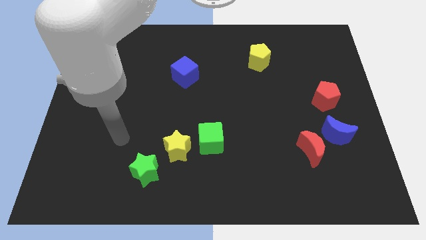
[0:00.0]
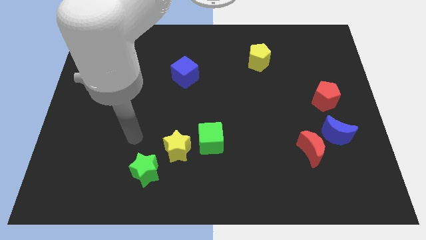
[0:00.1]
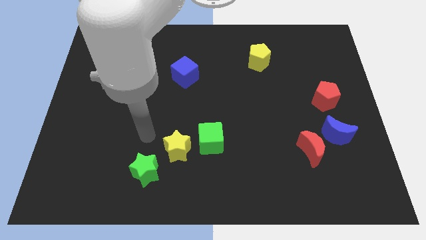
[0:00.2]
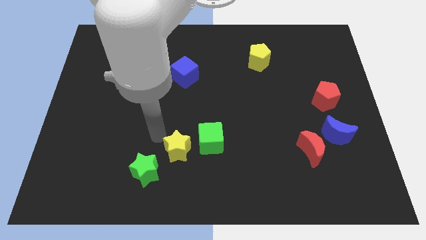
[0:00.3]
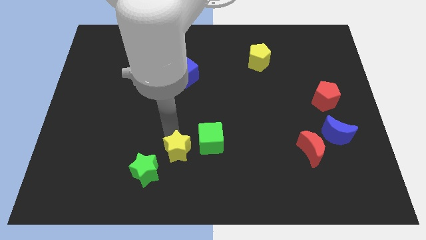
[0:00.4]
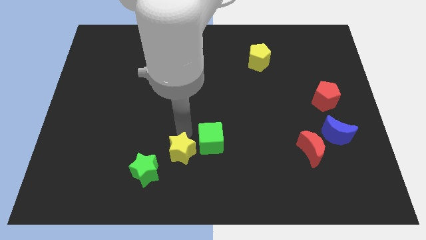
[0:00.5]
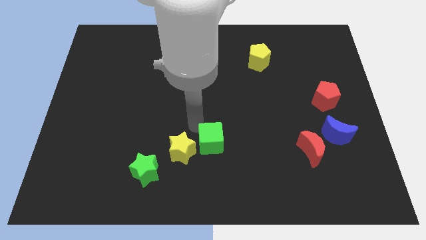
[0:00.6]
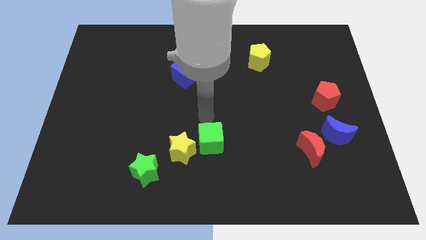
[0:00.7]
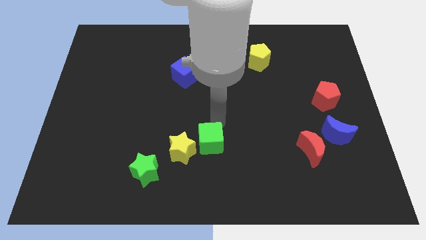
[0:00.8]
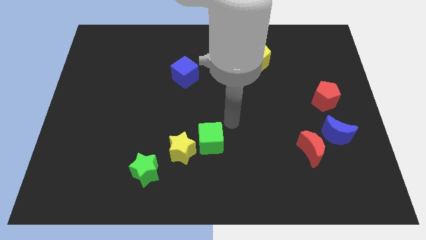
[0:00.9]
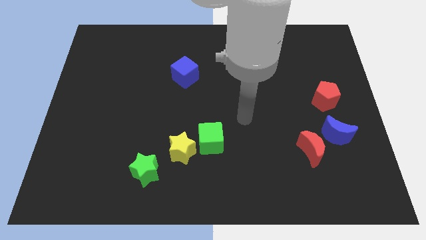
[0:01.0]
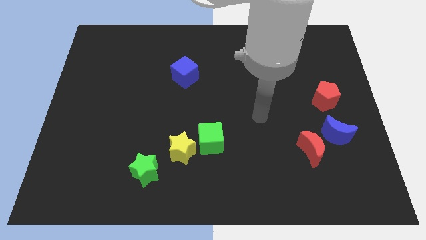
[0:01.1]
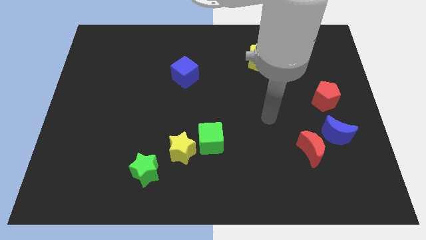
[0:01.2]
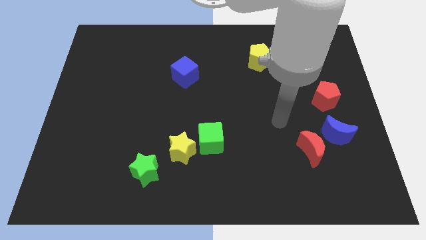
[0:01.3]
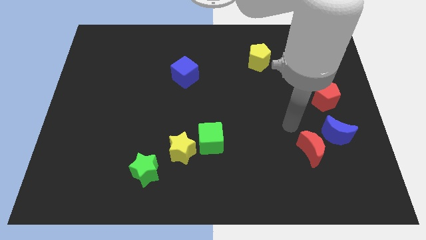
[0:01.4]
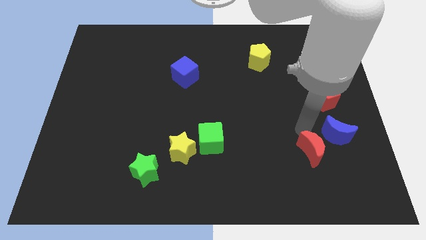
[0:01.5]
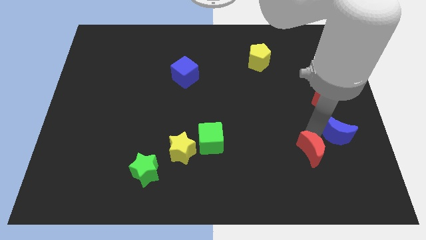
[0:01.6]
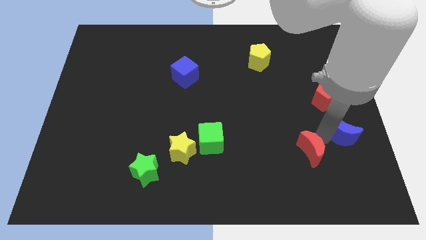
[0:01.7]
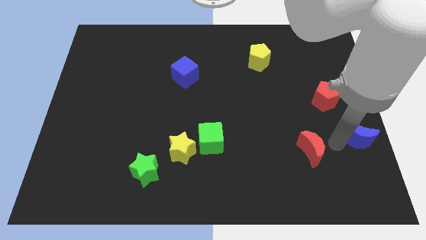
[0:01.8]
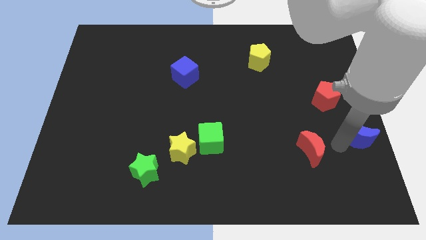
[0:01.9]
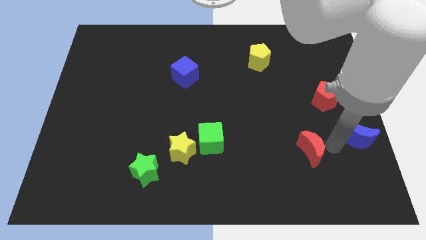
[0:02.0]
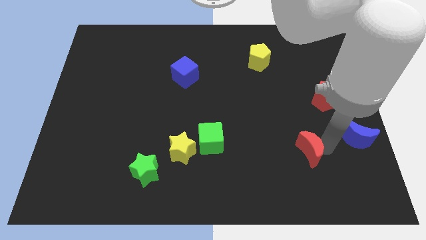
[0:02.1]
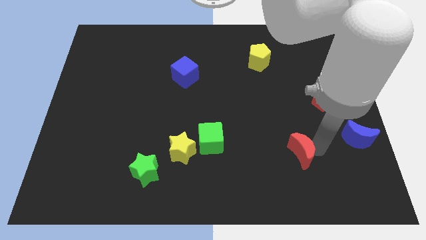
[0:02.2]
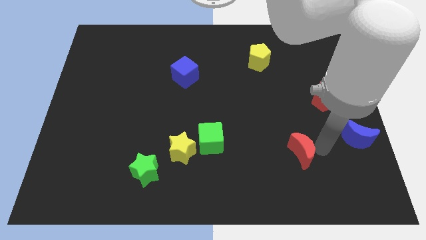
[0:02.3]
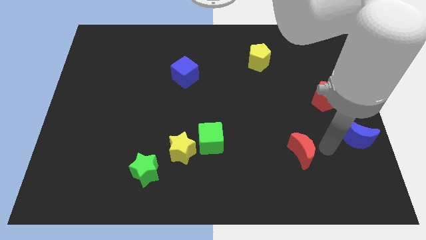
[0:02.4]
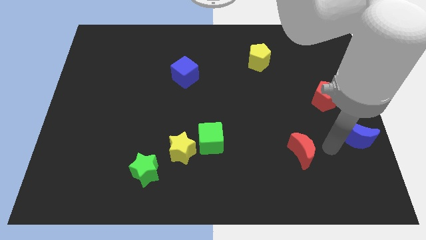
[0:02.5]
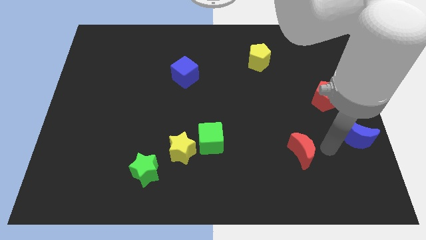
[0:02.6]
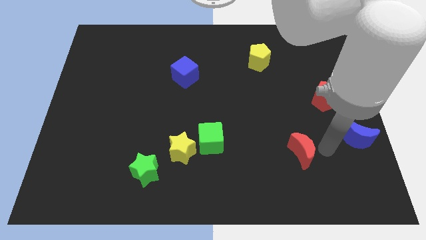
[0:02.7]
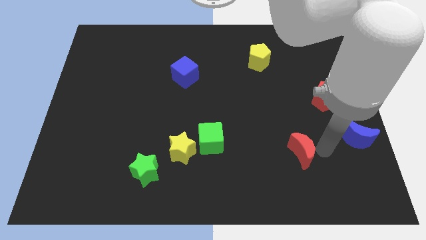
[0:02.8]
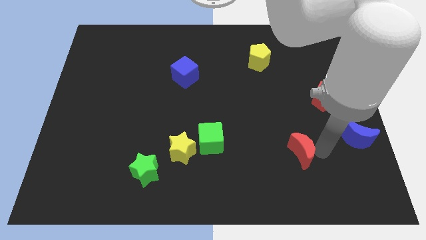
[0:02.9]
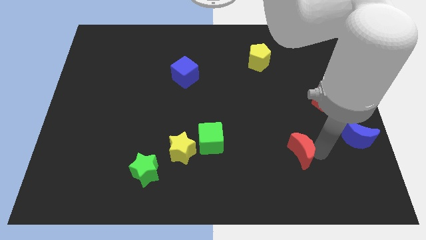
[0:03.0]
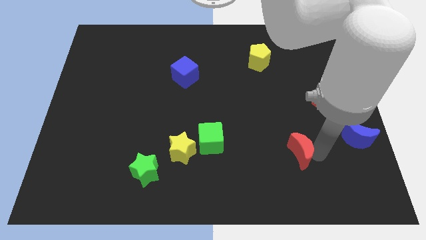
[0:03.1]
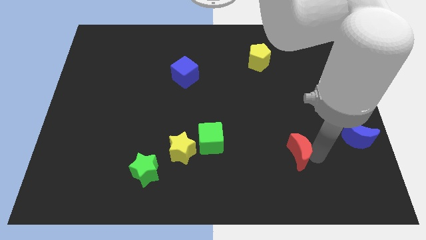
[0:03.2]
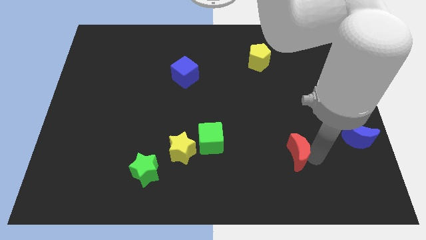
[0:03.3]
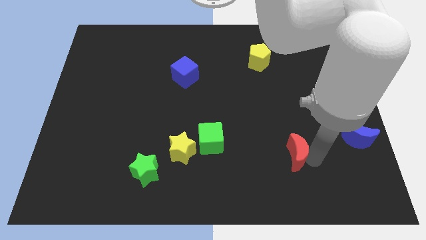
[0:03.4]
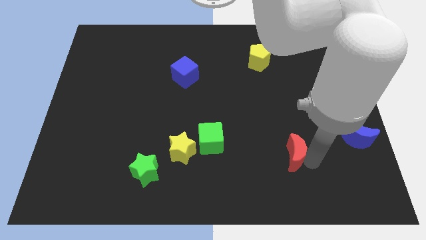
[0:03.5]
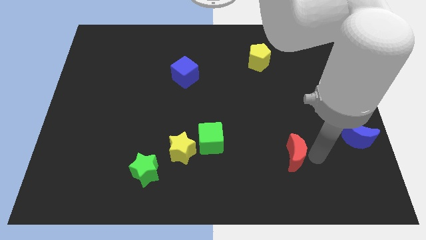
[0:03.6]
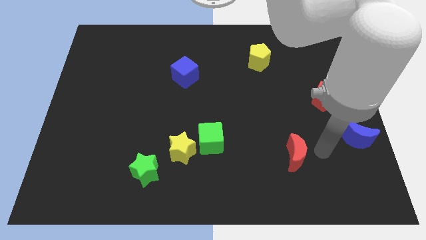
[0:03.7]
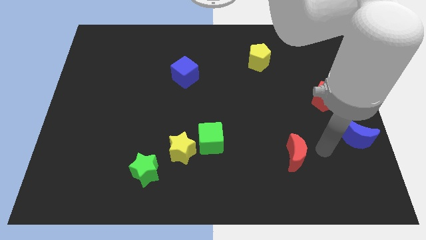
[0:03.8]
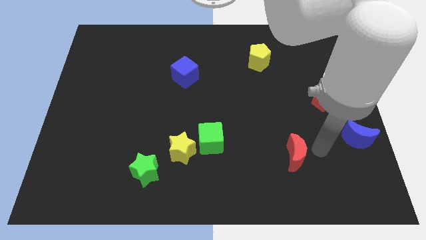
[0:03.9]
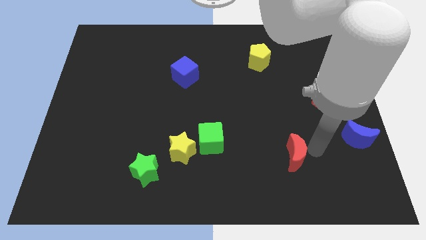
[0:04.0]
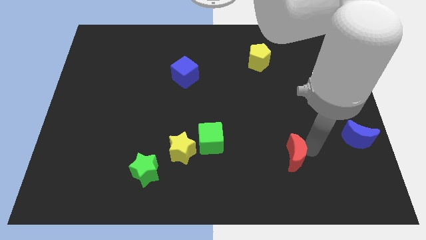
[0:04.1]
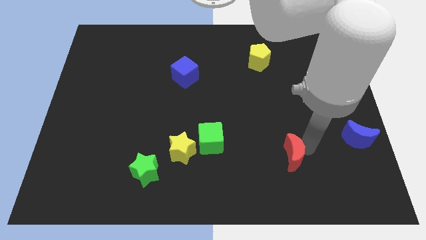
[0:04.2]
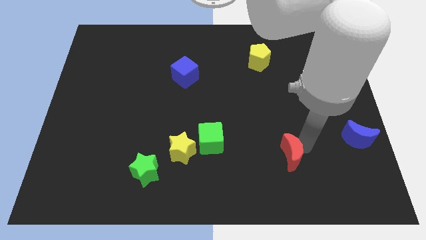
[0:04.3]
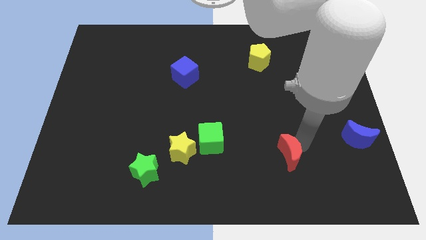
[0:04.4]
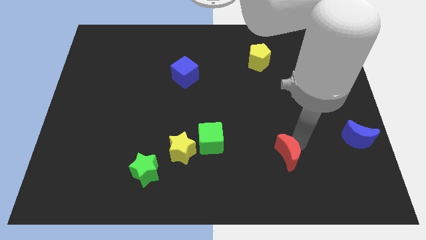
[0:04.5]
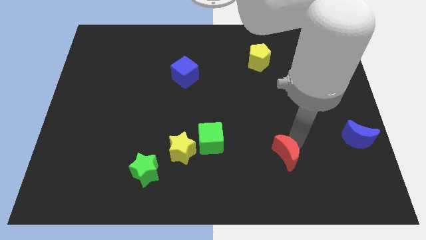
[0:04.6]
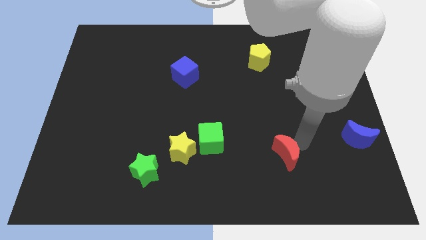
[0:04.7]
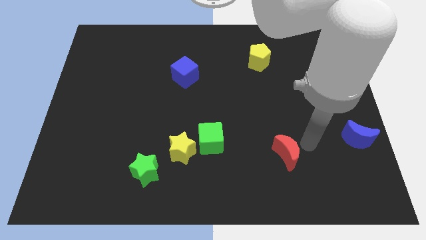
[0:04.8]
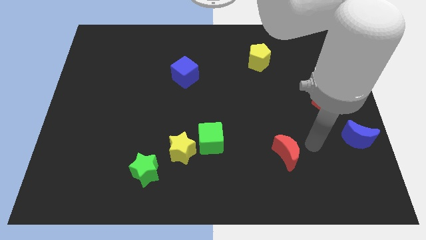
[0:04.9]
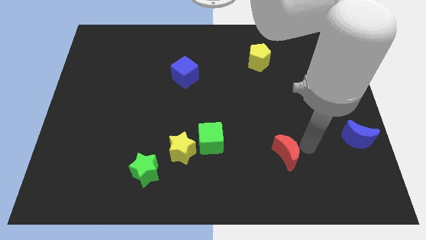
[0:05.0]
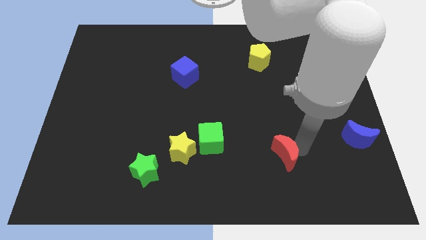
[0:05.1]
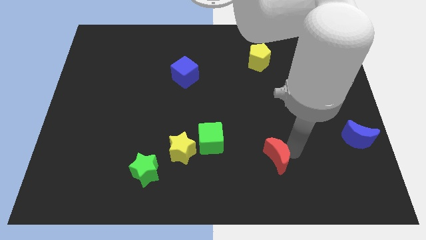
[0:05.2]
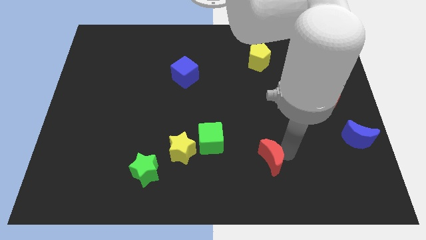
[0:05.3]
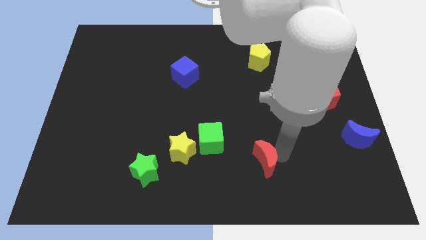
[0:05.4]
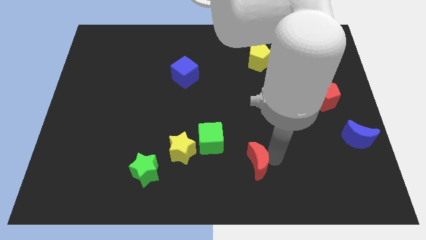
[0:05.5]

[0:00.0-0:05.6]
put the red moon diagonally down and to the right of the green cube

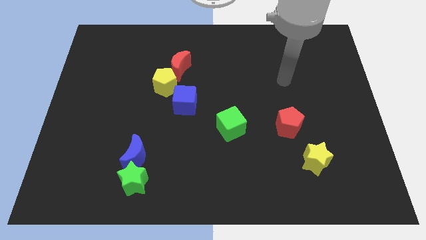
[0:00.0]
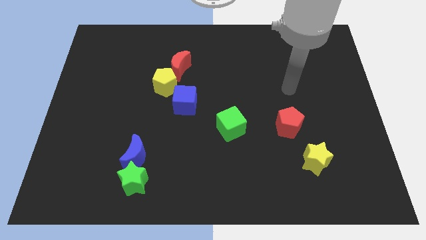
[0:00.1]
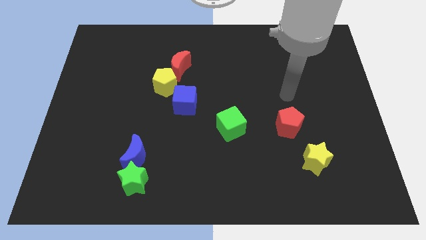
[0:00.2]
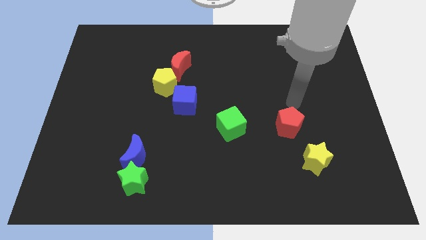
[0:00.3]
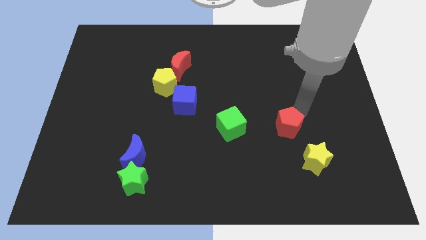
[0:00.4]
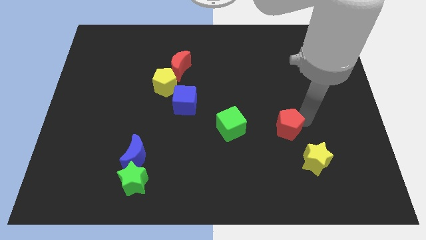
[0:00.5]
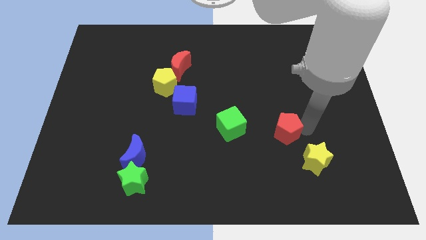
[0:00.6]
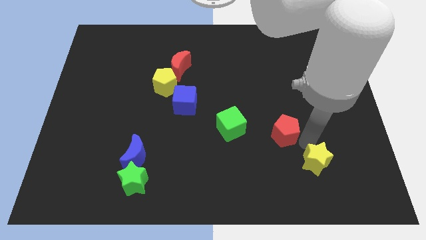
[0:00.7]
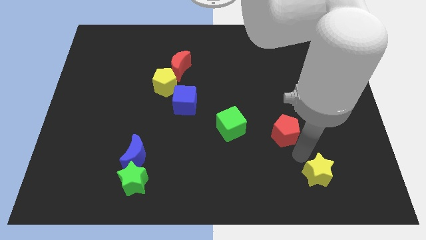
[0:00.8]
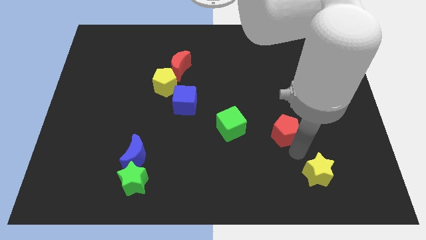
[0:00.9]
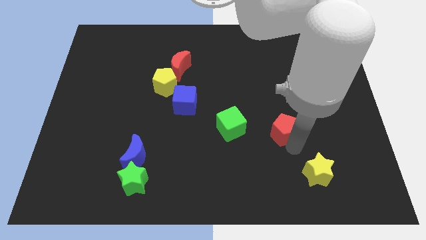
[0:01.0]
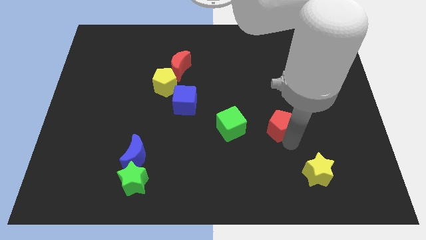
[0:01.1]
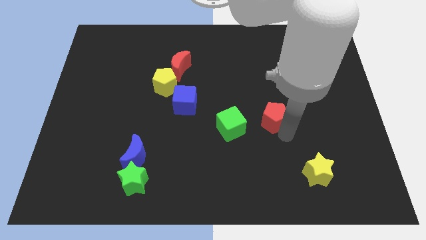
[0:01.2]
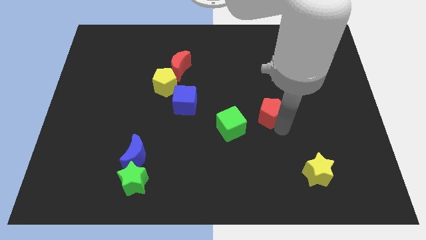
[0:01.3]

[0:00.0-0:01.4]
put the red pentagon to the top right side of the green cube
